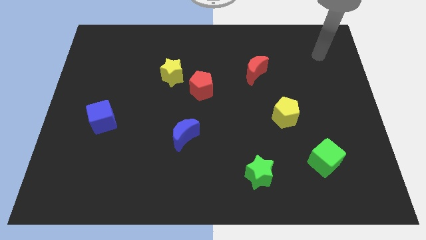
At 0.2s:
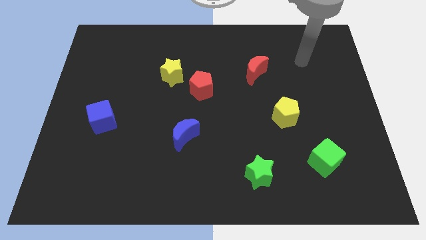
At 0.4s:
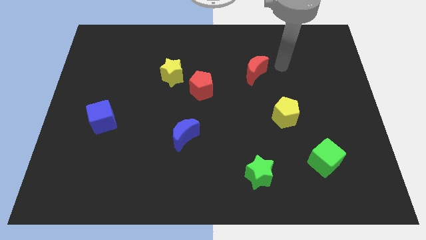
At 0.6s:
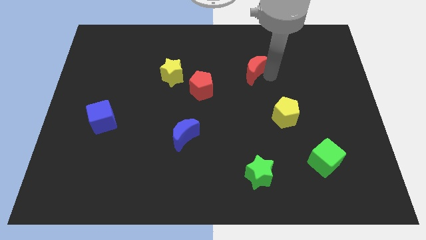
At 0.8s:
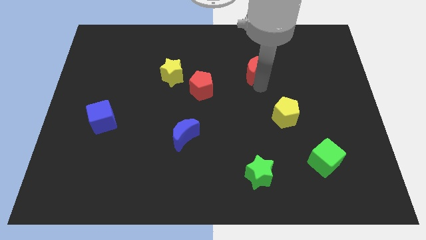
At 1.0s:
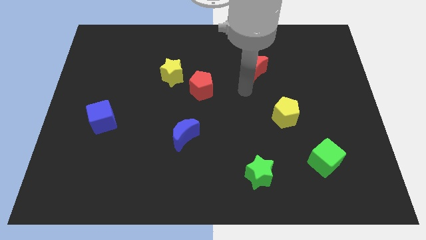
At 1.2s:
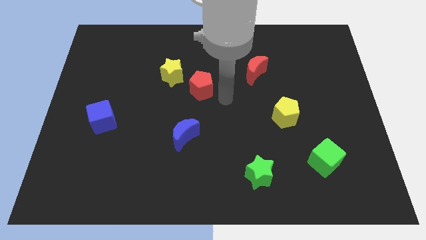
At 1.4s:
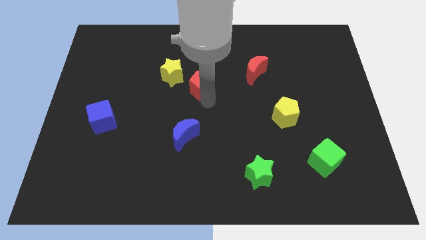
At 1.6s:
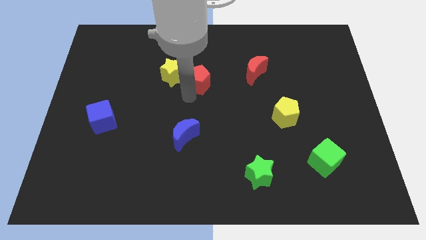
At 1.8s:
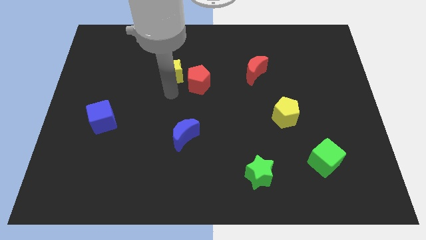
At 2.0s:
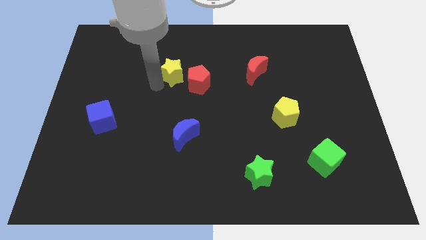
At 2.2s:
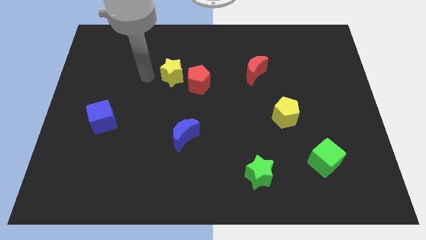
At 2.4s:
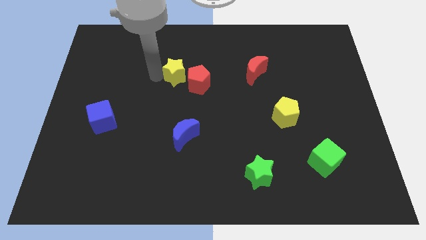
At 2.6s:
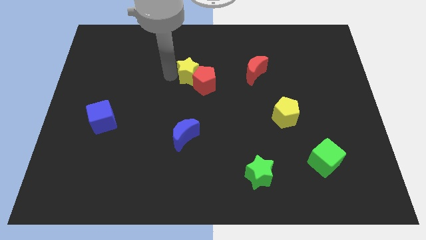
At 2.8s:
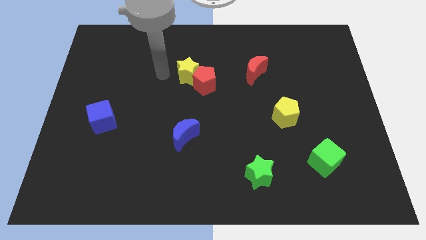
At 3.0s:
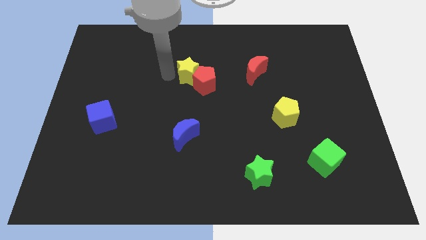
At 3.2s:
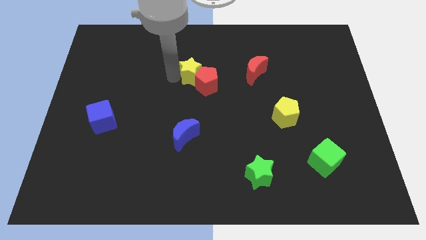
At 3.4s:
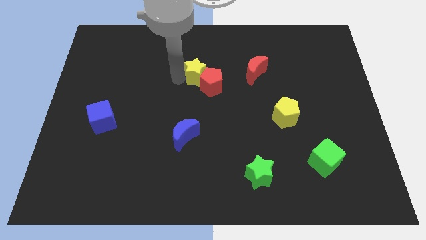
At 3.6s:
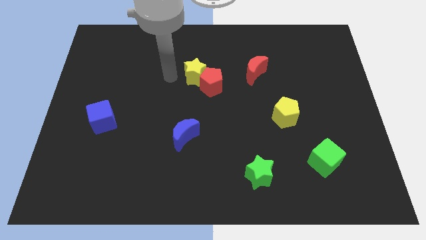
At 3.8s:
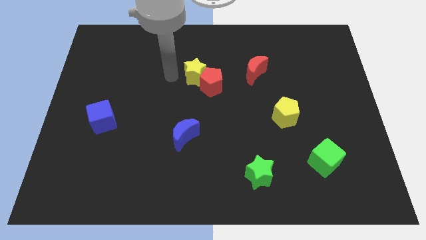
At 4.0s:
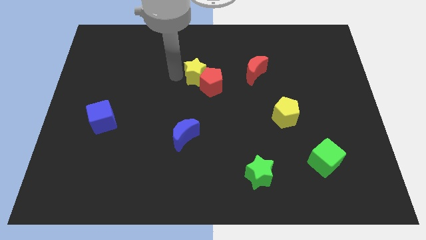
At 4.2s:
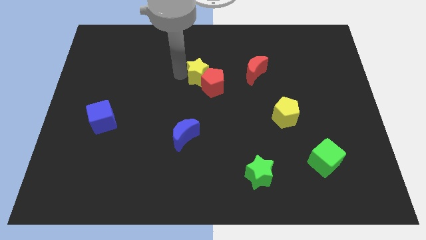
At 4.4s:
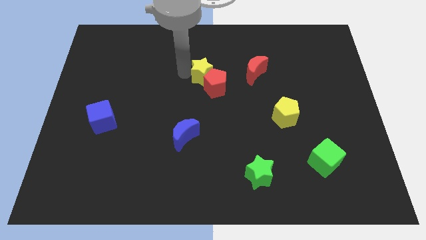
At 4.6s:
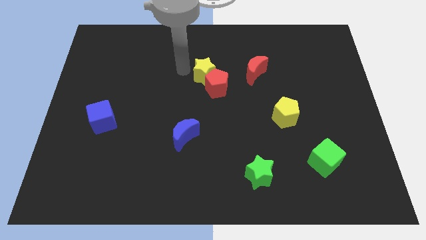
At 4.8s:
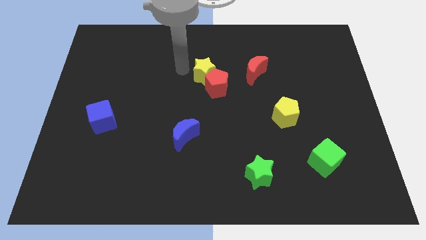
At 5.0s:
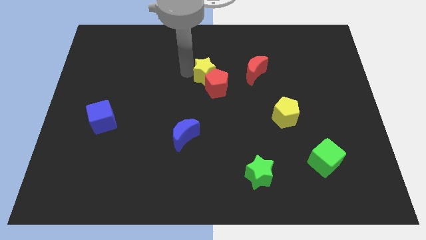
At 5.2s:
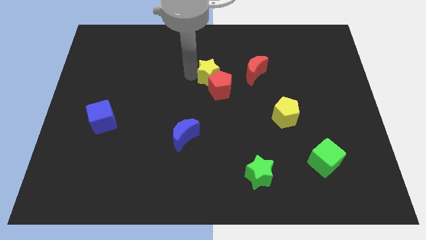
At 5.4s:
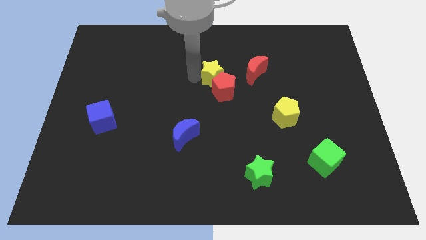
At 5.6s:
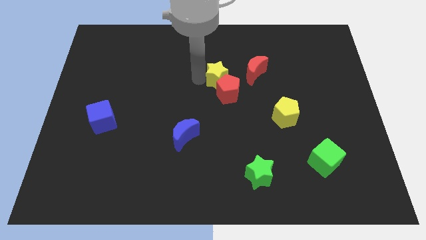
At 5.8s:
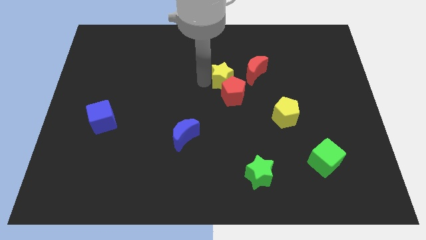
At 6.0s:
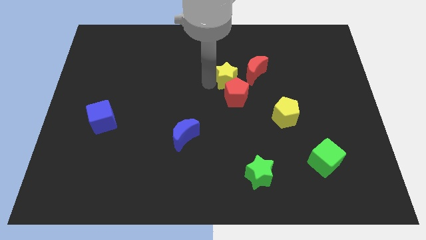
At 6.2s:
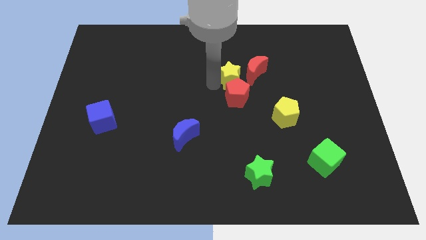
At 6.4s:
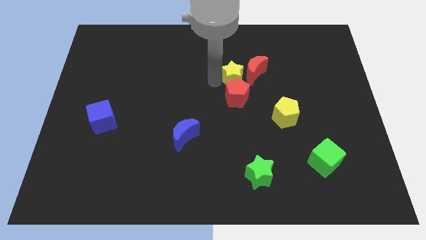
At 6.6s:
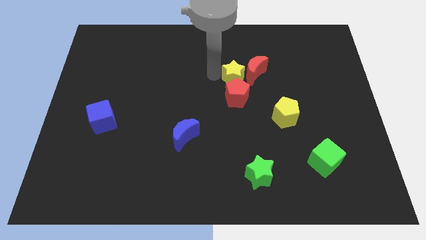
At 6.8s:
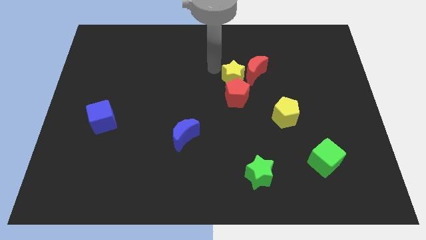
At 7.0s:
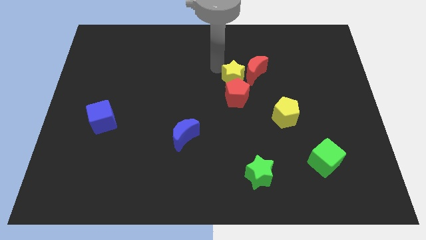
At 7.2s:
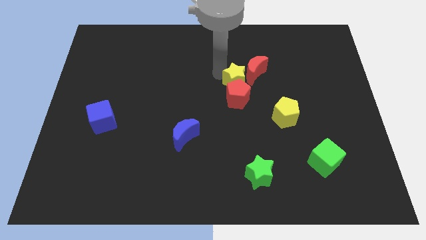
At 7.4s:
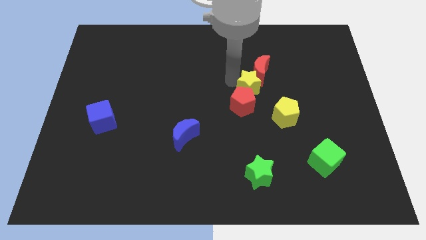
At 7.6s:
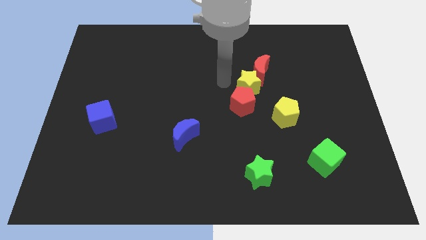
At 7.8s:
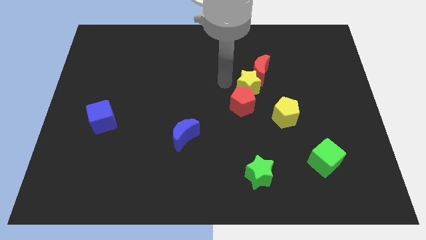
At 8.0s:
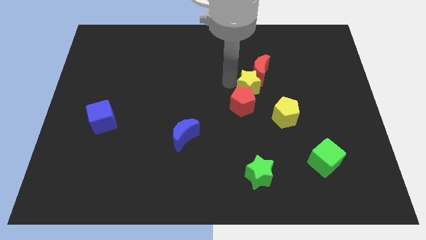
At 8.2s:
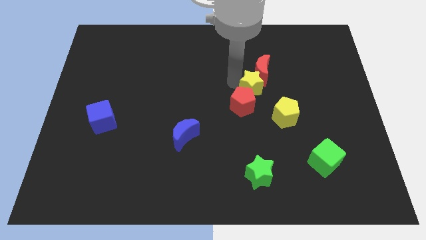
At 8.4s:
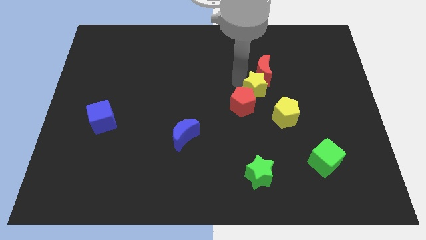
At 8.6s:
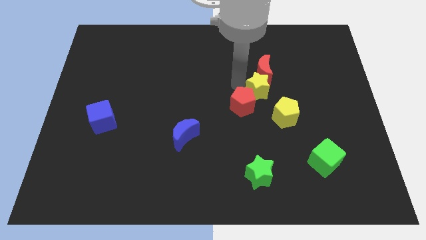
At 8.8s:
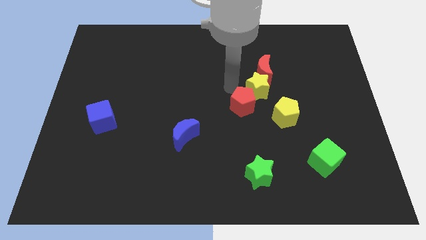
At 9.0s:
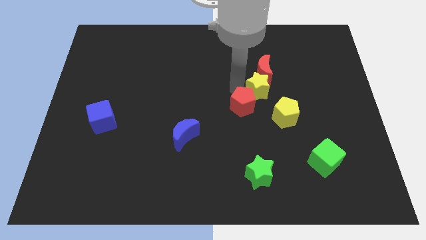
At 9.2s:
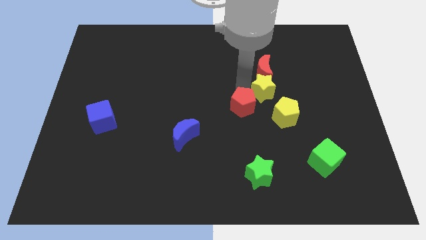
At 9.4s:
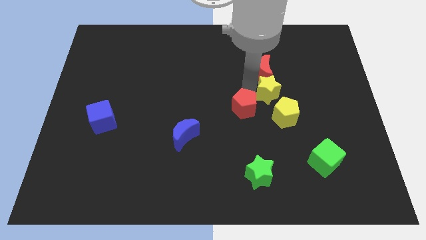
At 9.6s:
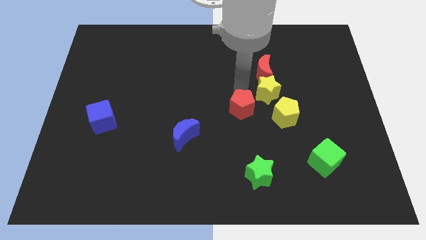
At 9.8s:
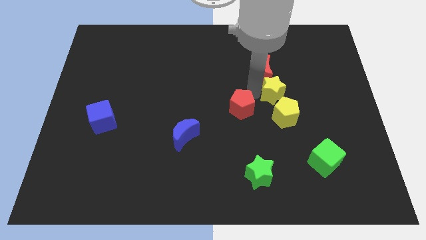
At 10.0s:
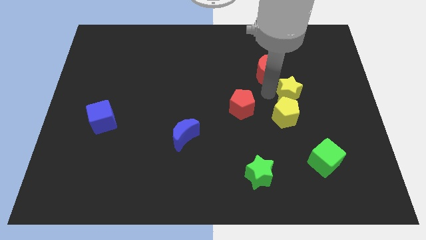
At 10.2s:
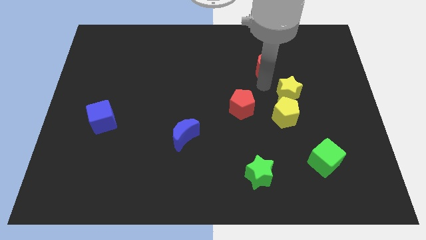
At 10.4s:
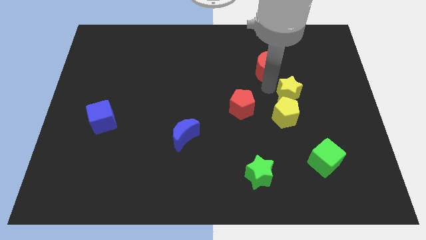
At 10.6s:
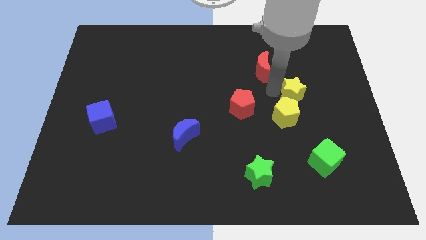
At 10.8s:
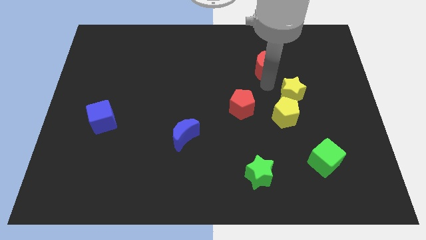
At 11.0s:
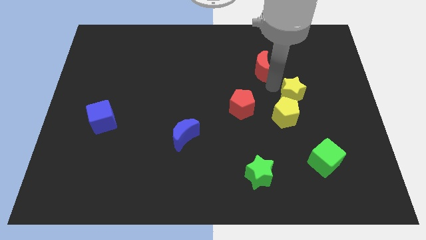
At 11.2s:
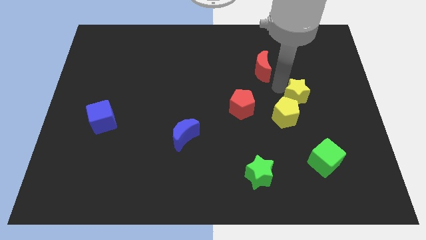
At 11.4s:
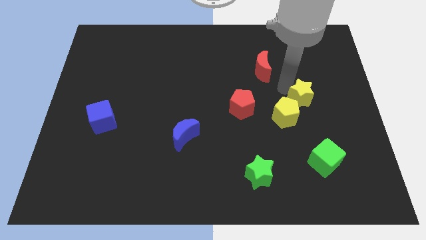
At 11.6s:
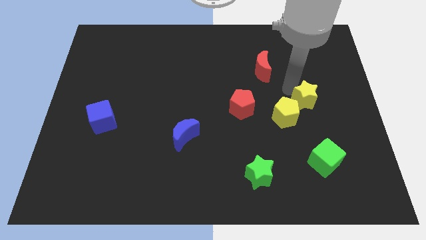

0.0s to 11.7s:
move the yellow star to the right side of the yellow pentagon

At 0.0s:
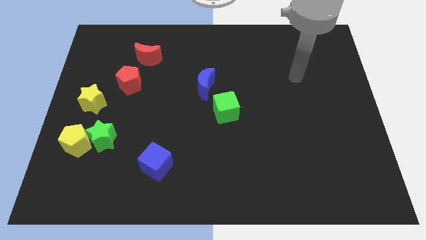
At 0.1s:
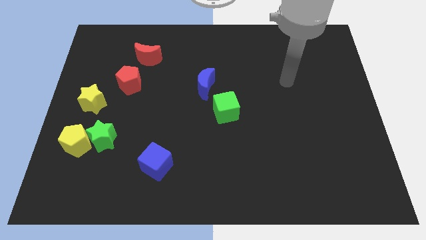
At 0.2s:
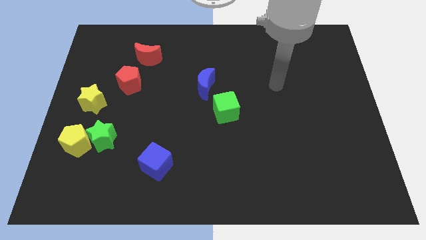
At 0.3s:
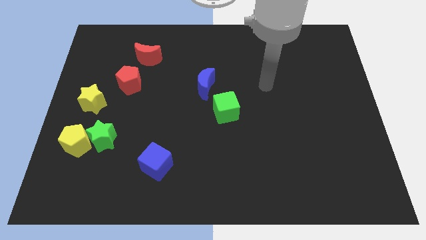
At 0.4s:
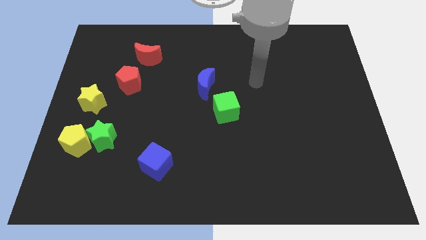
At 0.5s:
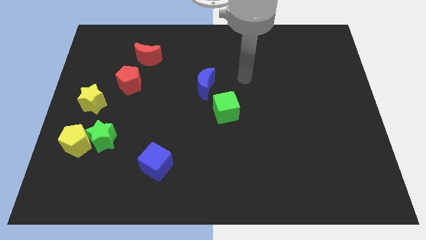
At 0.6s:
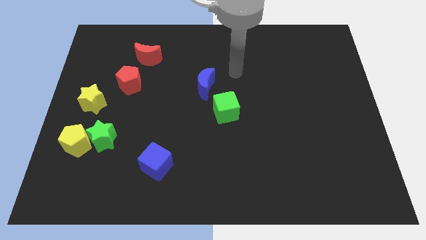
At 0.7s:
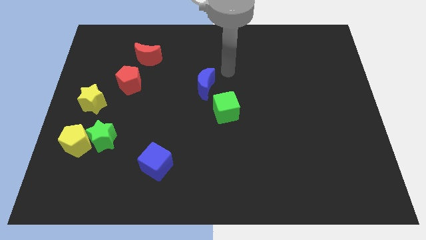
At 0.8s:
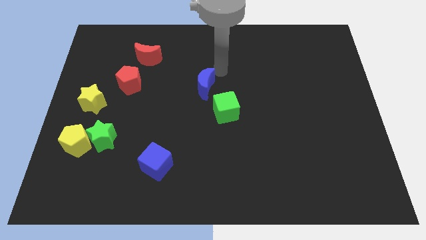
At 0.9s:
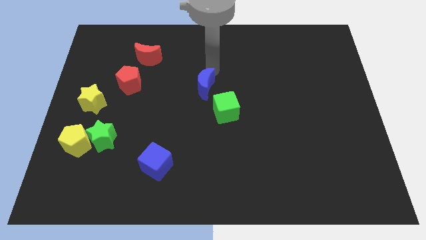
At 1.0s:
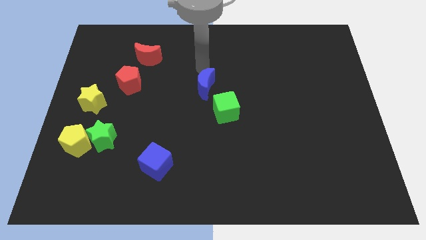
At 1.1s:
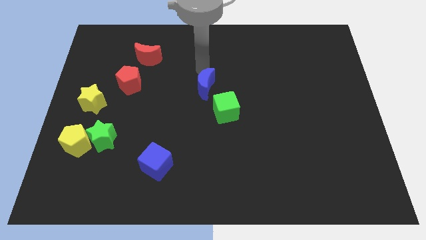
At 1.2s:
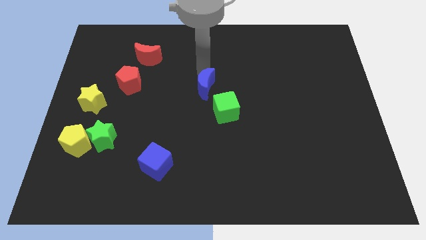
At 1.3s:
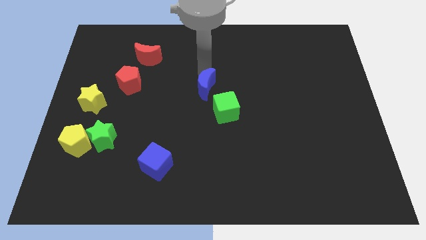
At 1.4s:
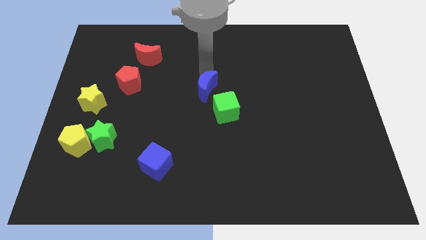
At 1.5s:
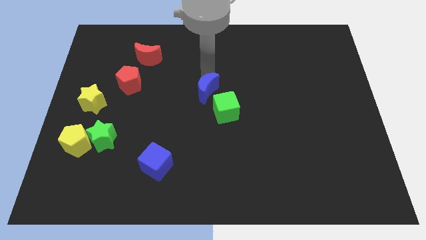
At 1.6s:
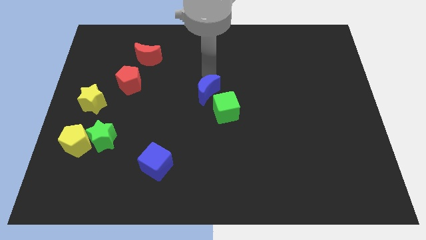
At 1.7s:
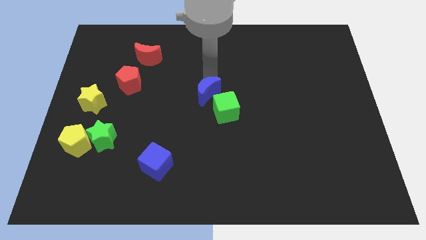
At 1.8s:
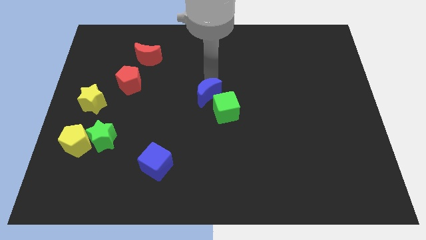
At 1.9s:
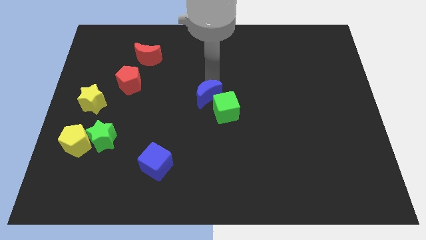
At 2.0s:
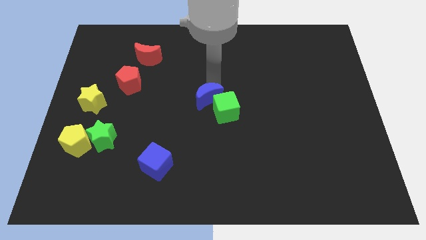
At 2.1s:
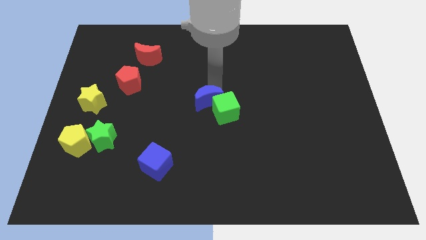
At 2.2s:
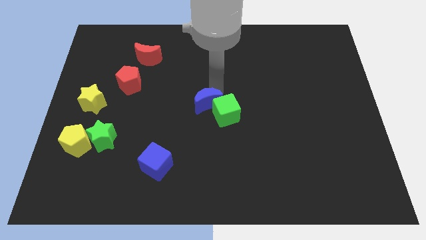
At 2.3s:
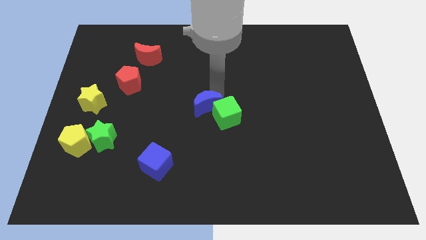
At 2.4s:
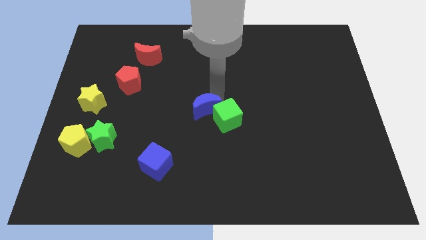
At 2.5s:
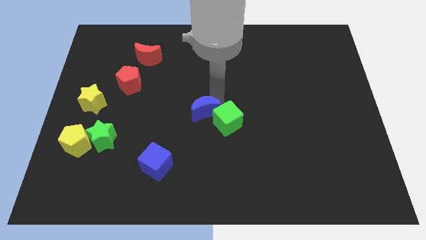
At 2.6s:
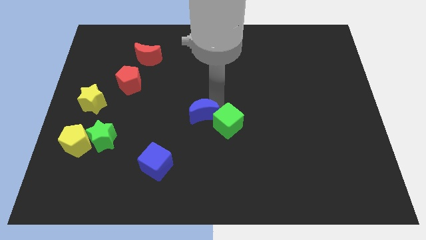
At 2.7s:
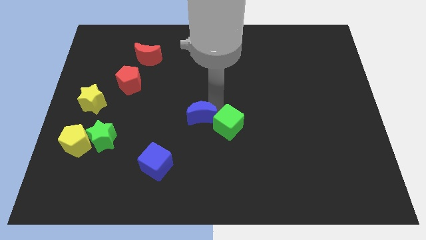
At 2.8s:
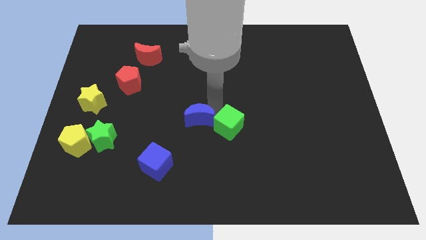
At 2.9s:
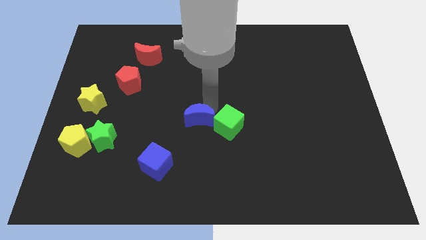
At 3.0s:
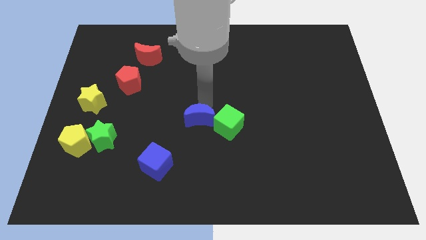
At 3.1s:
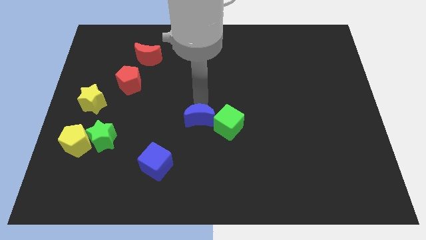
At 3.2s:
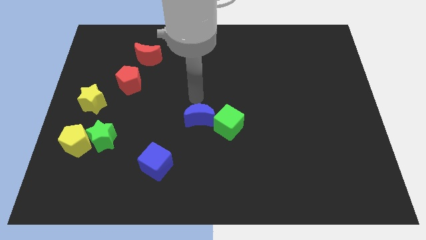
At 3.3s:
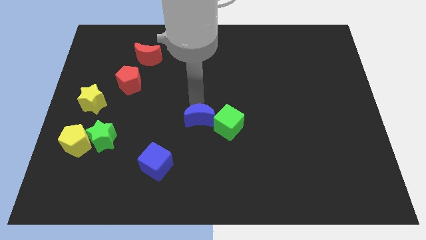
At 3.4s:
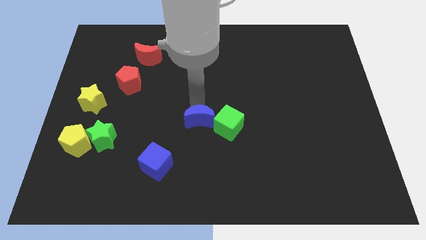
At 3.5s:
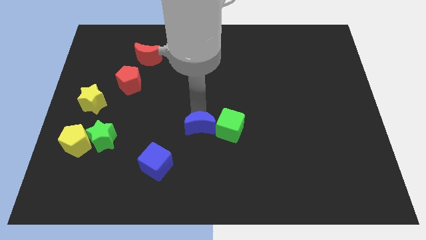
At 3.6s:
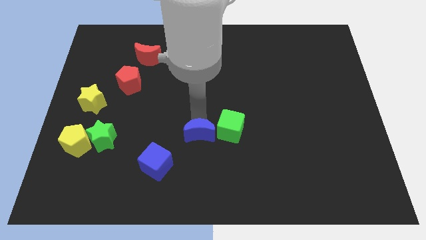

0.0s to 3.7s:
put the blue moon to the bottom left of the green cube
